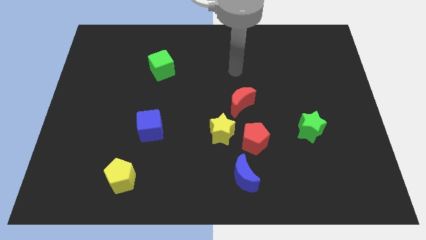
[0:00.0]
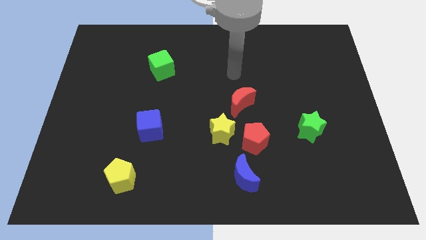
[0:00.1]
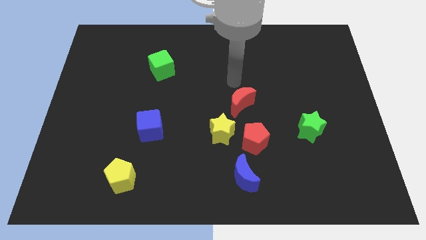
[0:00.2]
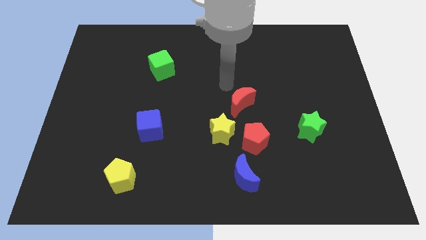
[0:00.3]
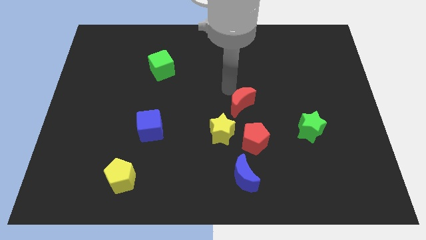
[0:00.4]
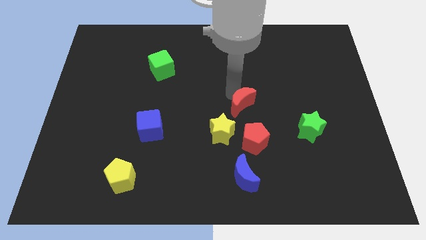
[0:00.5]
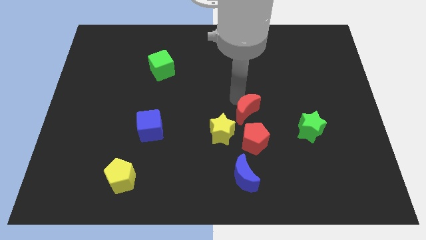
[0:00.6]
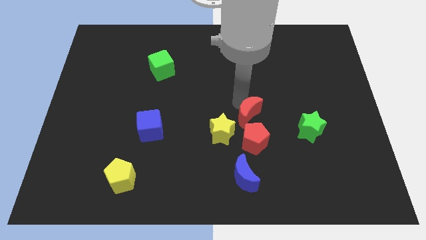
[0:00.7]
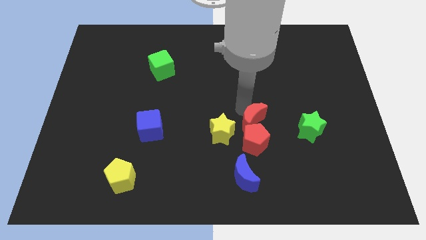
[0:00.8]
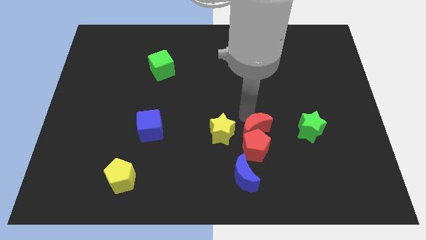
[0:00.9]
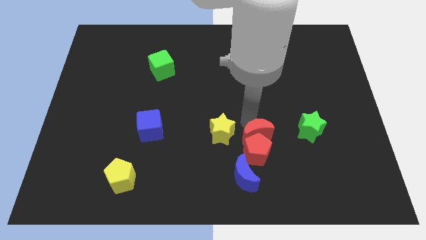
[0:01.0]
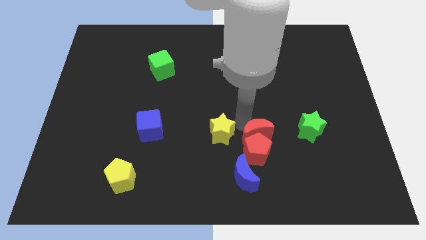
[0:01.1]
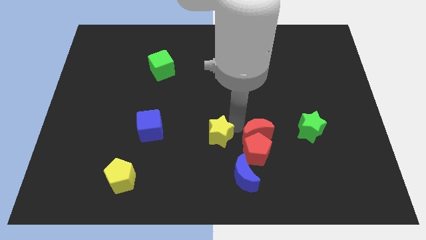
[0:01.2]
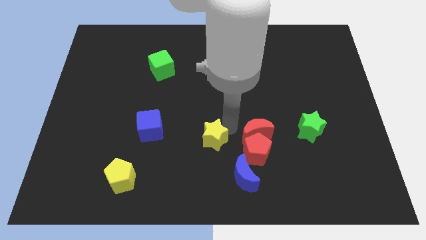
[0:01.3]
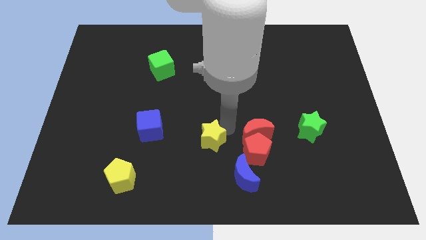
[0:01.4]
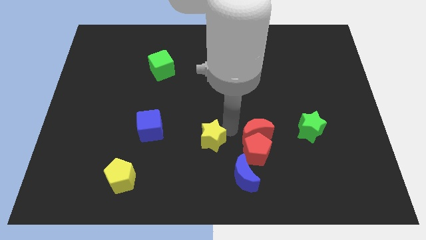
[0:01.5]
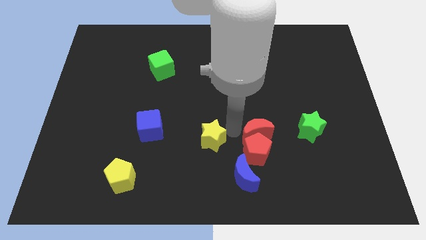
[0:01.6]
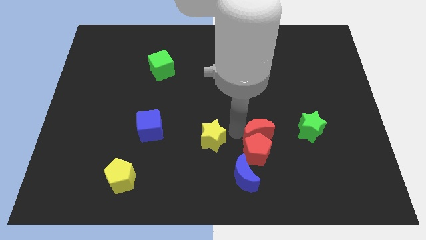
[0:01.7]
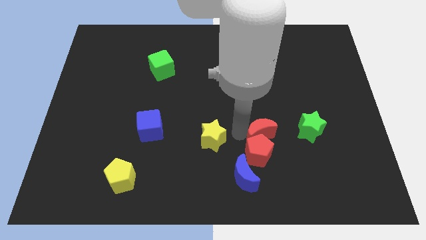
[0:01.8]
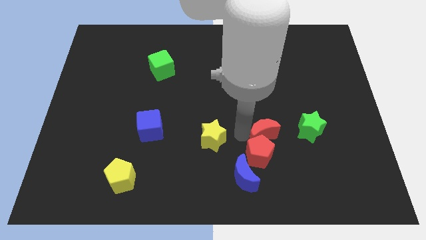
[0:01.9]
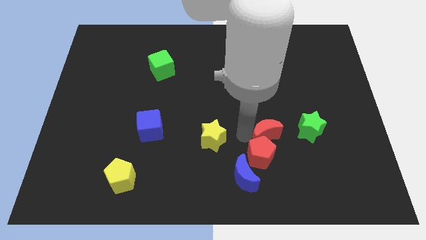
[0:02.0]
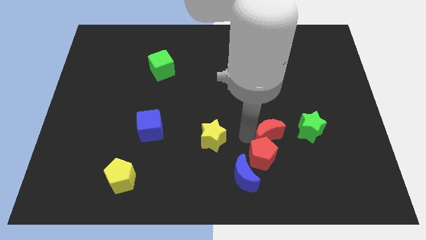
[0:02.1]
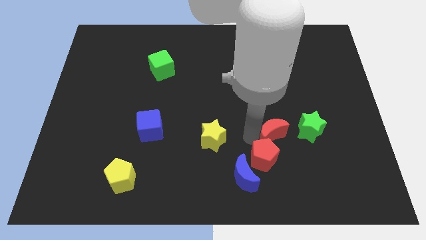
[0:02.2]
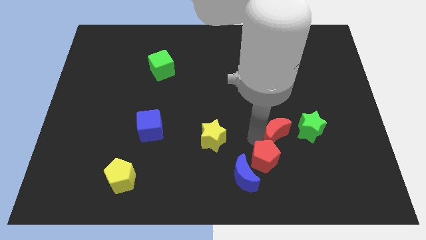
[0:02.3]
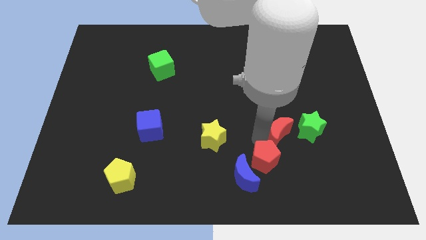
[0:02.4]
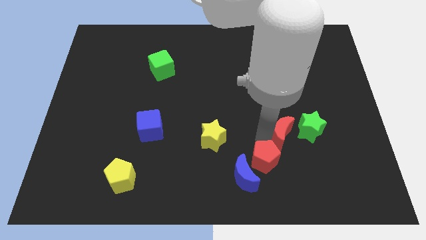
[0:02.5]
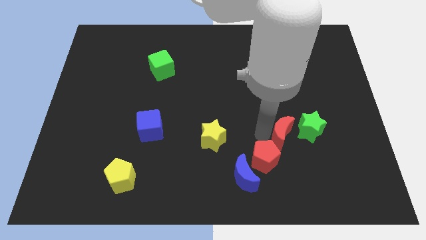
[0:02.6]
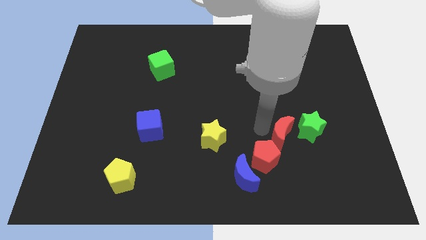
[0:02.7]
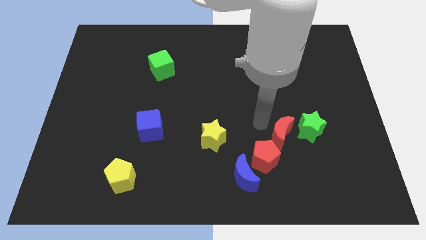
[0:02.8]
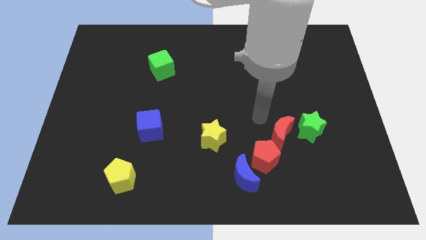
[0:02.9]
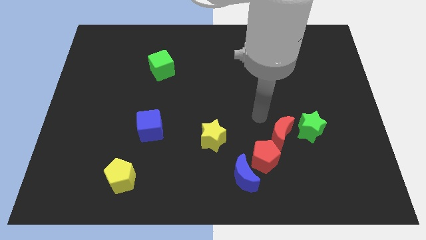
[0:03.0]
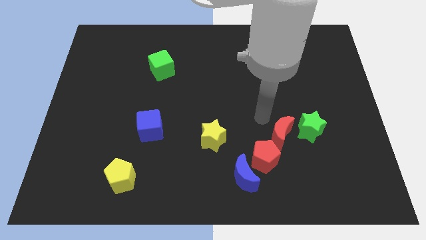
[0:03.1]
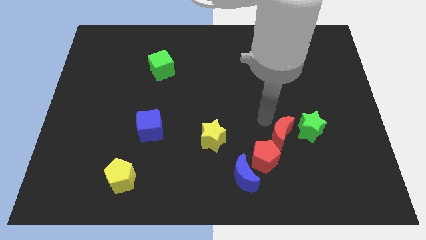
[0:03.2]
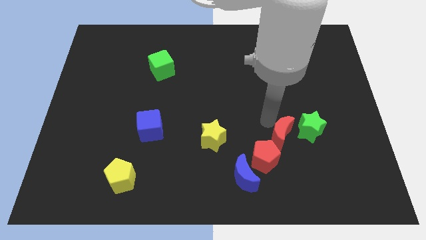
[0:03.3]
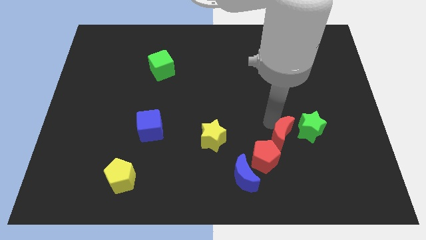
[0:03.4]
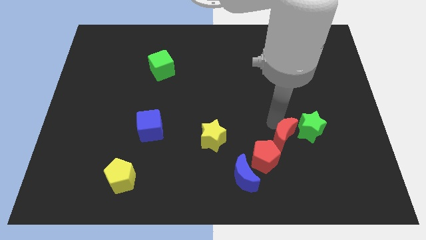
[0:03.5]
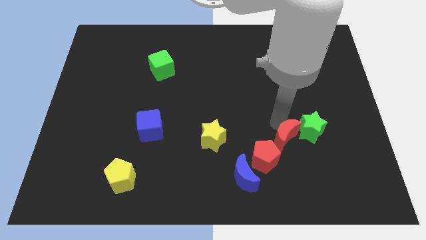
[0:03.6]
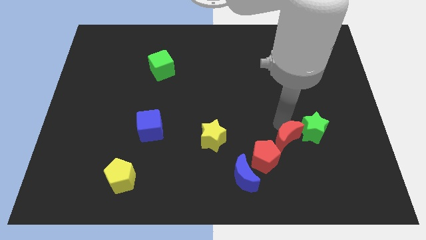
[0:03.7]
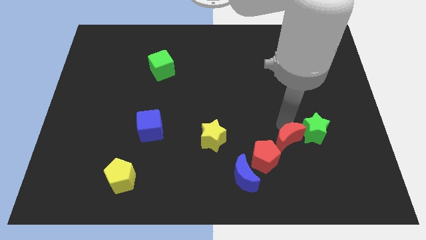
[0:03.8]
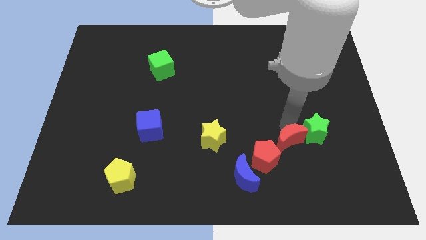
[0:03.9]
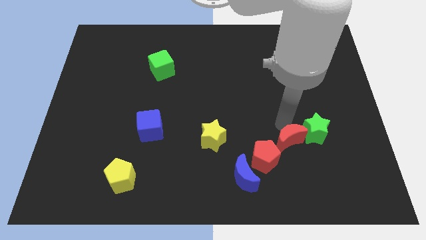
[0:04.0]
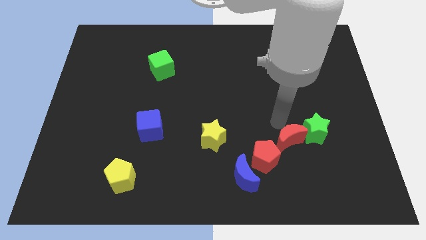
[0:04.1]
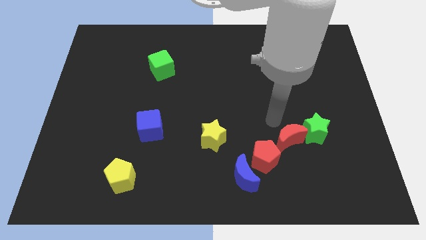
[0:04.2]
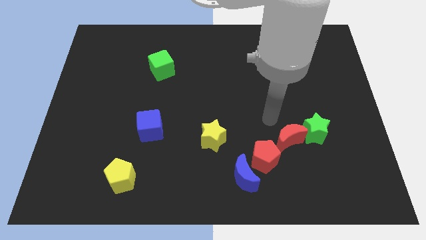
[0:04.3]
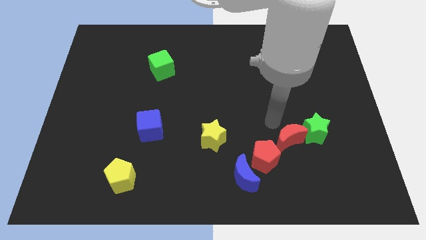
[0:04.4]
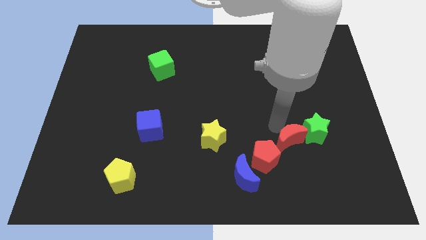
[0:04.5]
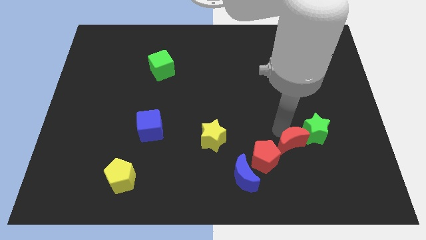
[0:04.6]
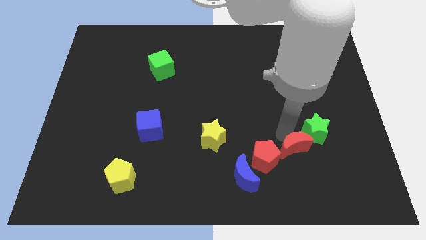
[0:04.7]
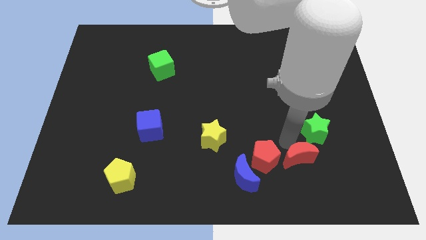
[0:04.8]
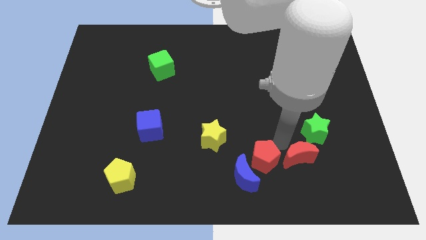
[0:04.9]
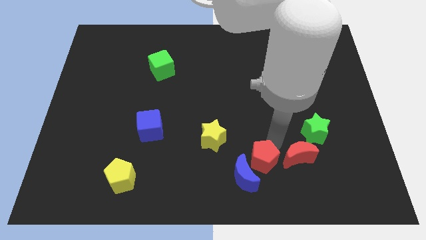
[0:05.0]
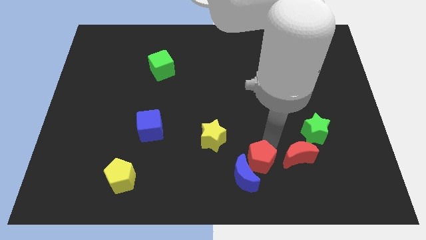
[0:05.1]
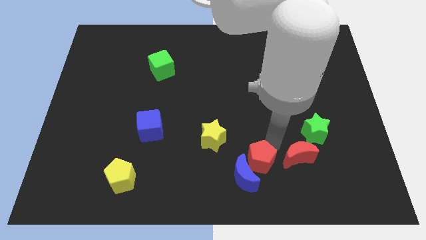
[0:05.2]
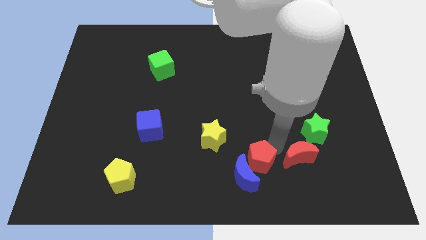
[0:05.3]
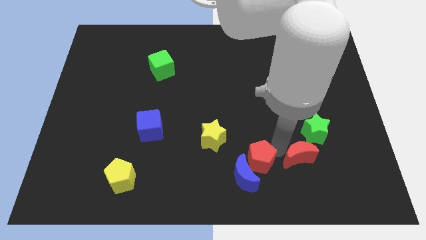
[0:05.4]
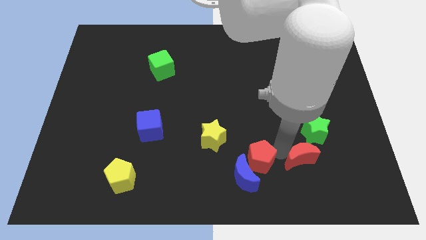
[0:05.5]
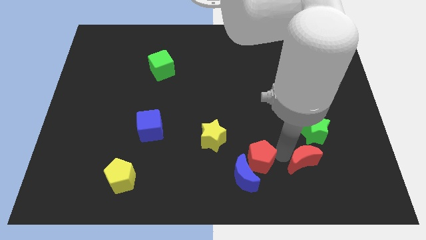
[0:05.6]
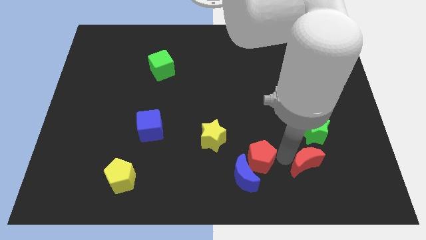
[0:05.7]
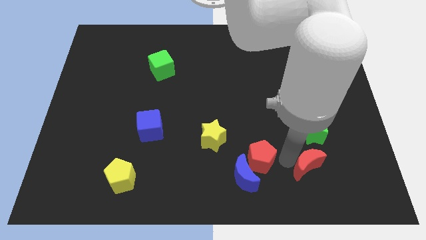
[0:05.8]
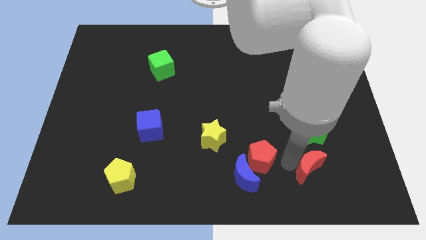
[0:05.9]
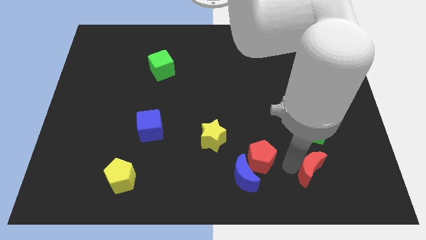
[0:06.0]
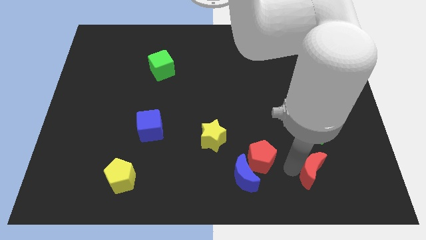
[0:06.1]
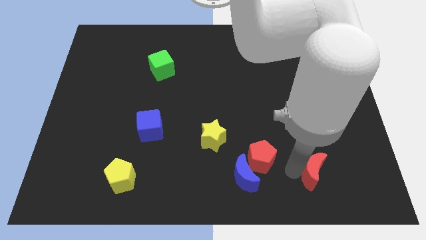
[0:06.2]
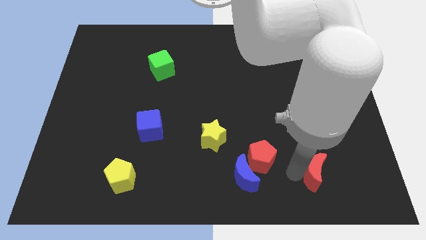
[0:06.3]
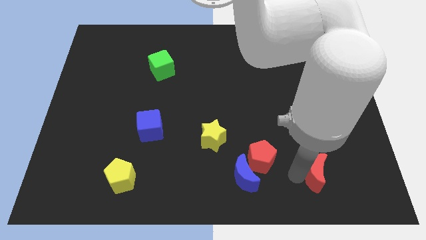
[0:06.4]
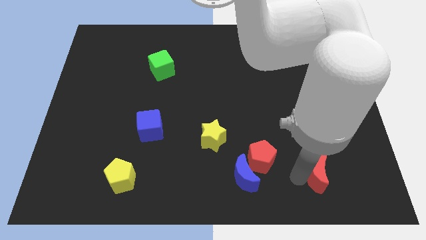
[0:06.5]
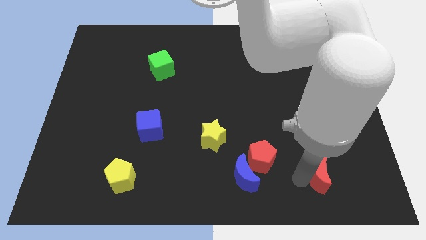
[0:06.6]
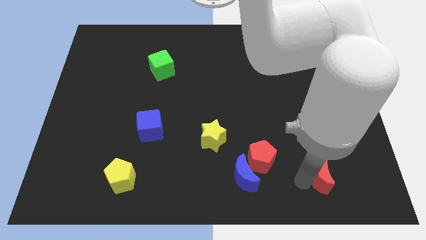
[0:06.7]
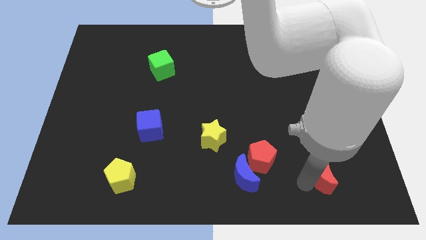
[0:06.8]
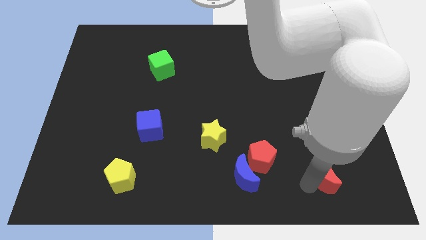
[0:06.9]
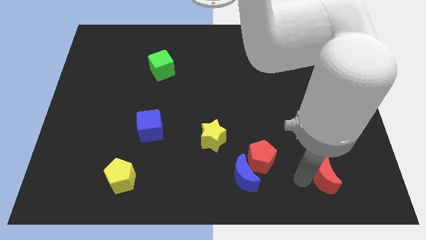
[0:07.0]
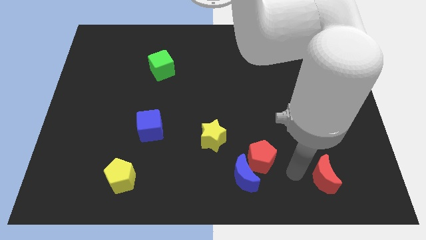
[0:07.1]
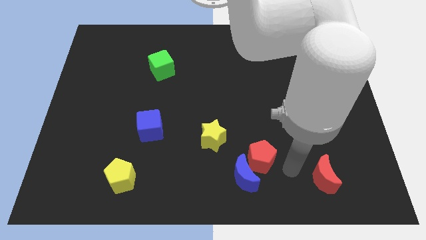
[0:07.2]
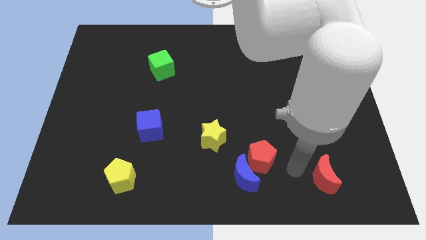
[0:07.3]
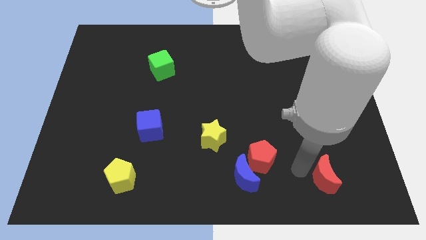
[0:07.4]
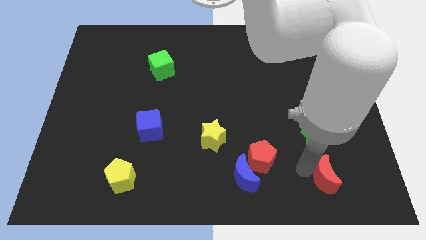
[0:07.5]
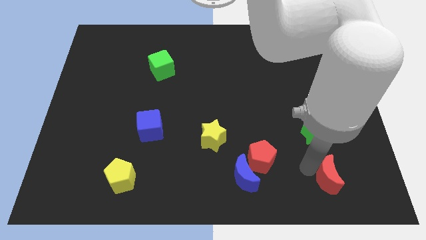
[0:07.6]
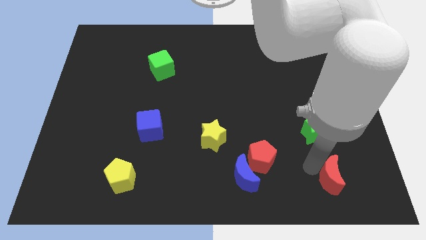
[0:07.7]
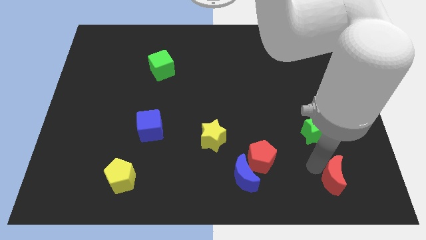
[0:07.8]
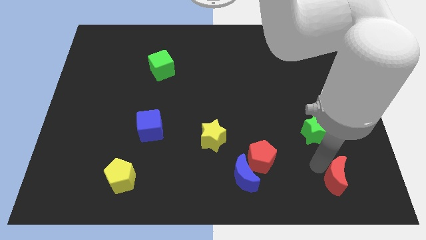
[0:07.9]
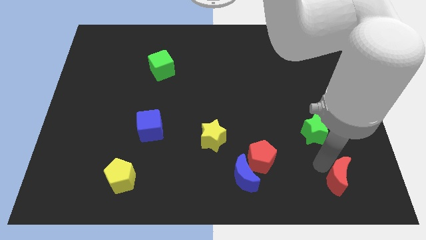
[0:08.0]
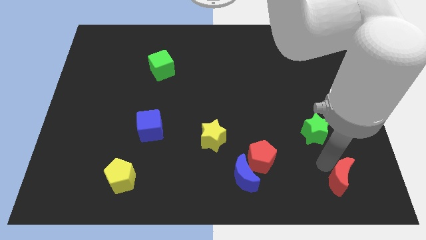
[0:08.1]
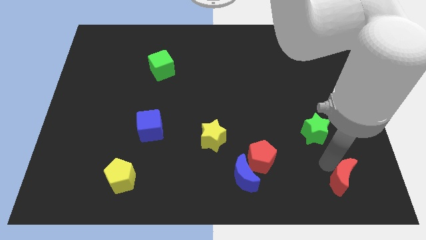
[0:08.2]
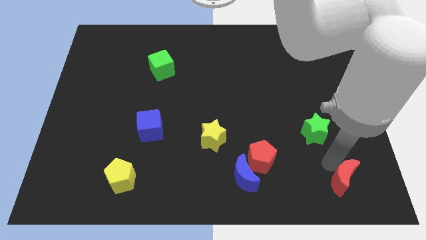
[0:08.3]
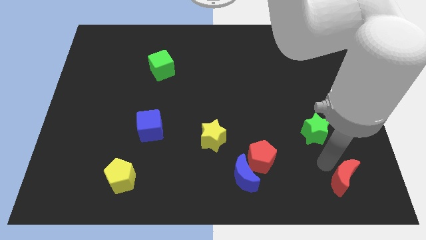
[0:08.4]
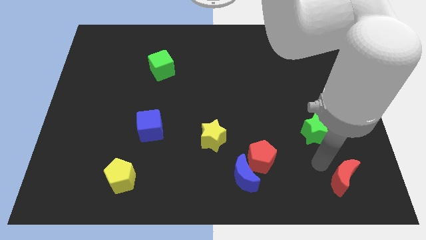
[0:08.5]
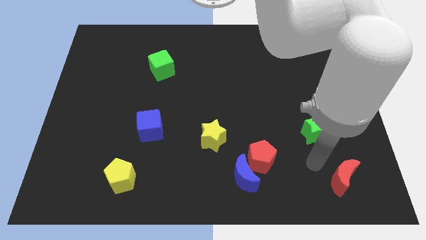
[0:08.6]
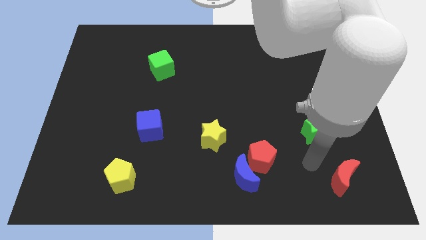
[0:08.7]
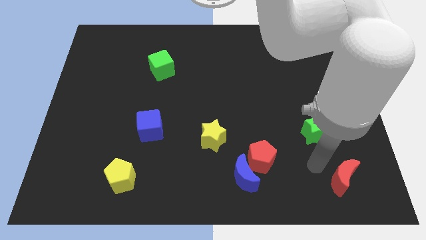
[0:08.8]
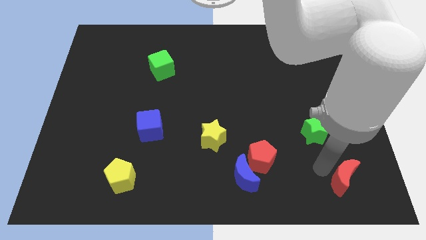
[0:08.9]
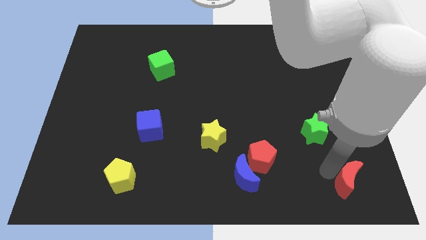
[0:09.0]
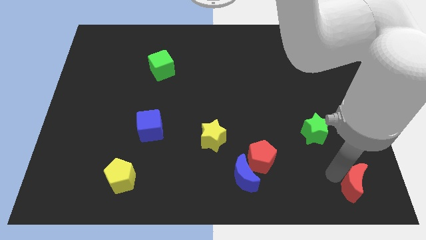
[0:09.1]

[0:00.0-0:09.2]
move the red moon to the bottom right
